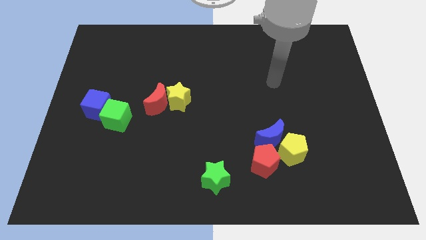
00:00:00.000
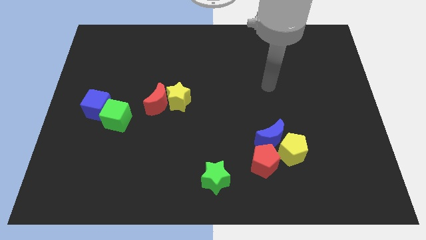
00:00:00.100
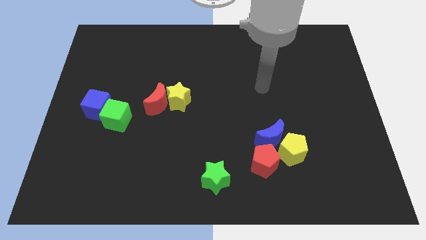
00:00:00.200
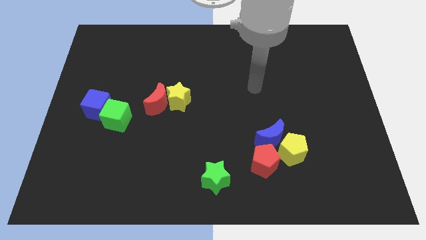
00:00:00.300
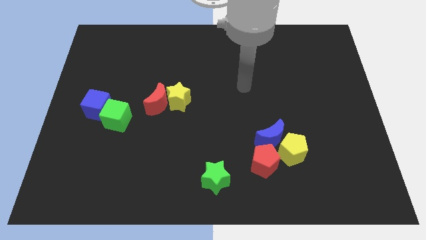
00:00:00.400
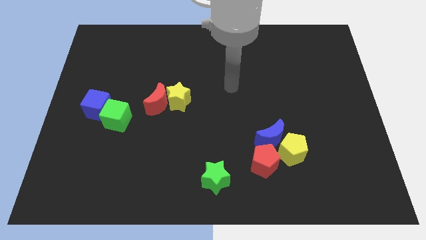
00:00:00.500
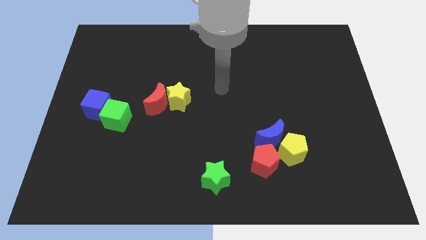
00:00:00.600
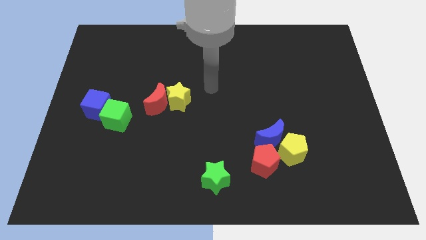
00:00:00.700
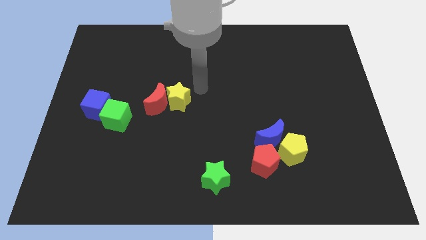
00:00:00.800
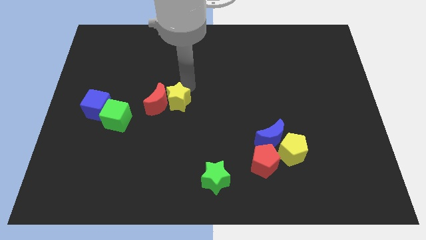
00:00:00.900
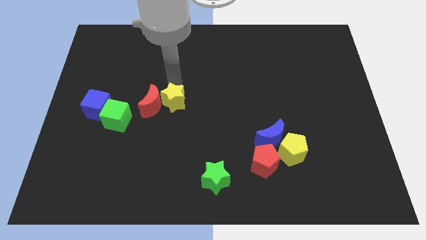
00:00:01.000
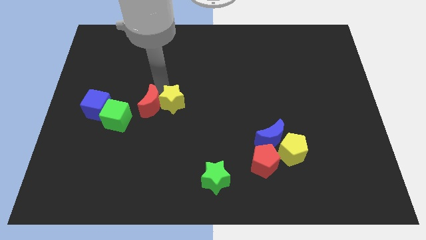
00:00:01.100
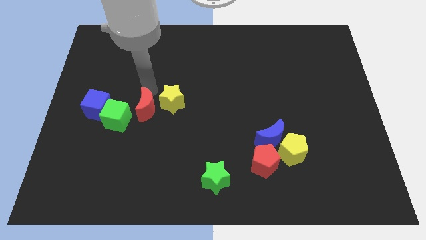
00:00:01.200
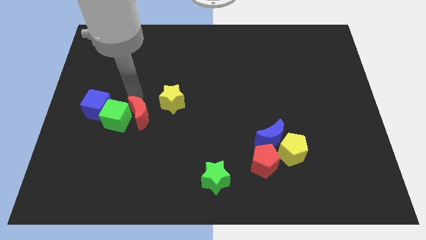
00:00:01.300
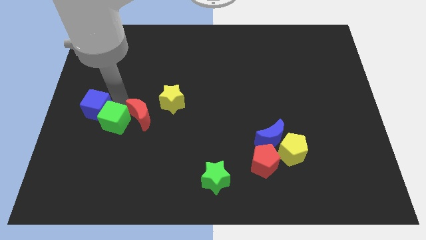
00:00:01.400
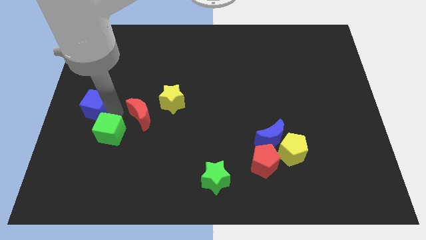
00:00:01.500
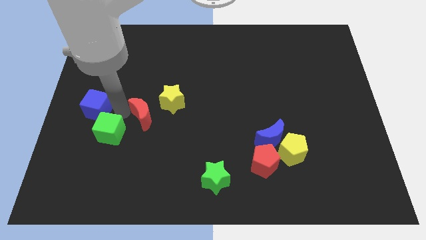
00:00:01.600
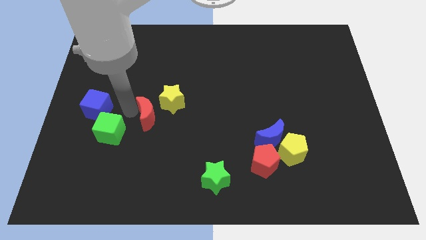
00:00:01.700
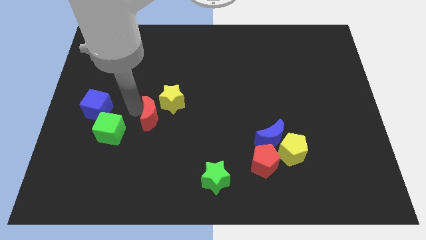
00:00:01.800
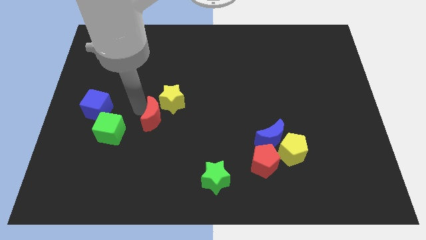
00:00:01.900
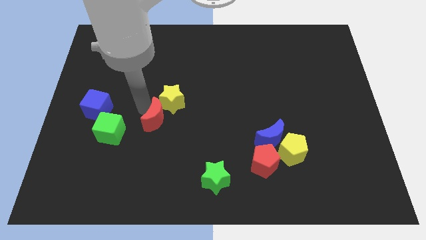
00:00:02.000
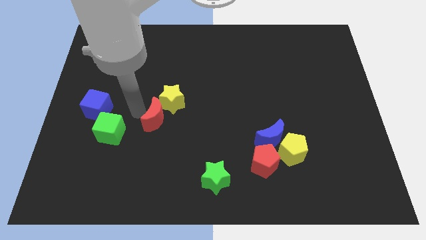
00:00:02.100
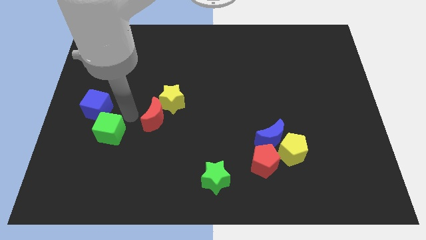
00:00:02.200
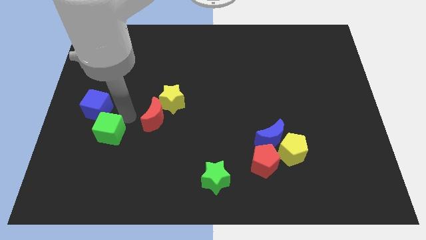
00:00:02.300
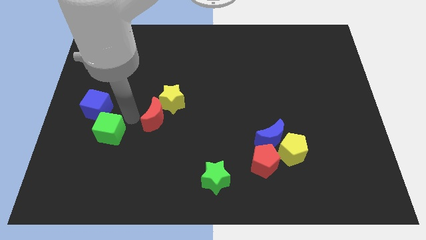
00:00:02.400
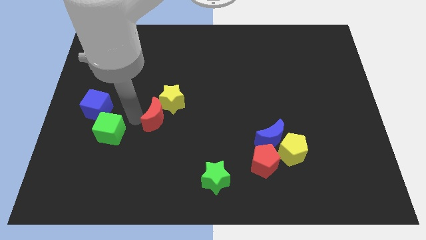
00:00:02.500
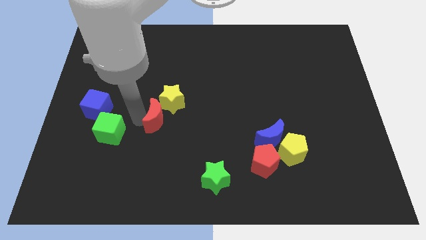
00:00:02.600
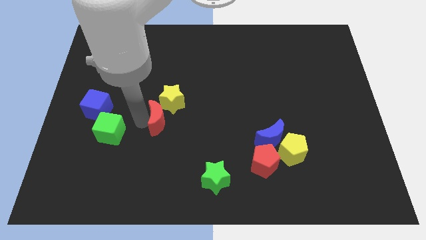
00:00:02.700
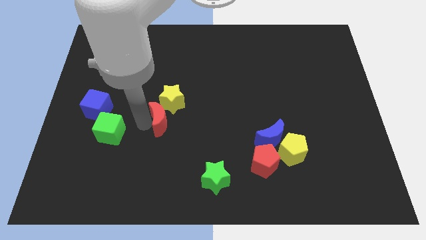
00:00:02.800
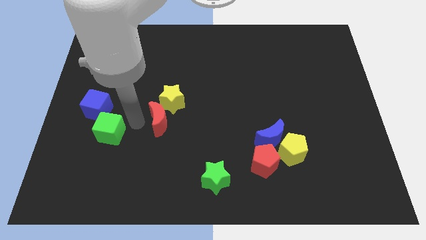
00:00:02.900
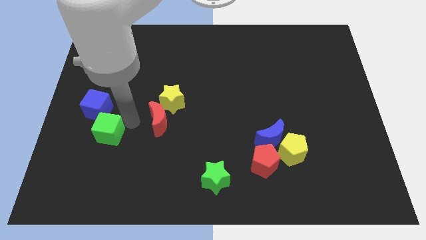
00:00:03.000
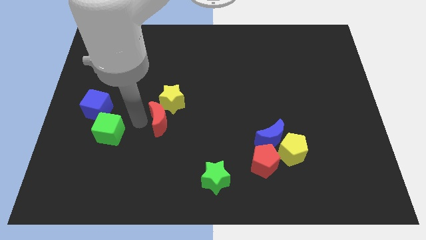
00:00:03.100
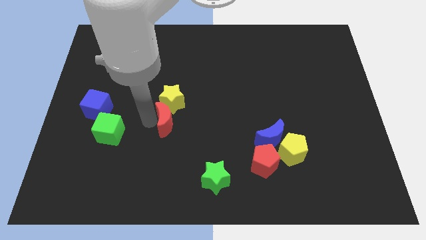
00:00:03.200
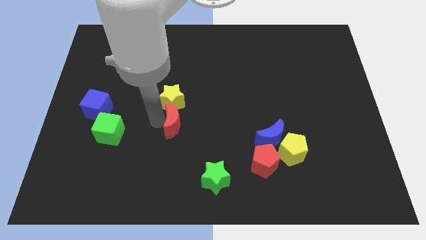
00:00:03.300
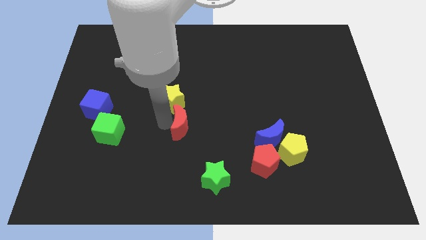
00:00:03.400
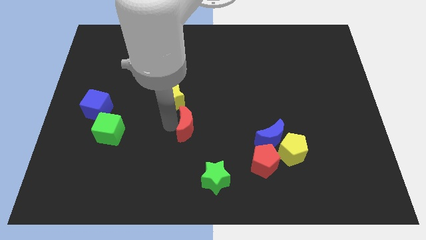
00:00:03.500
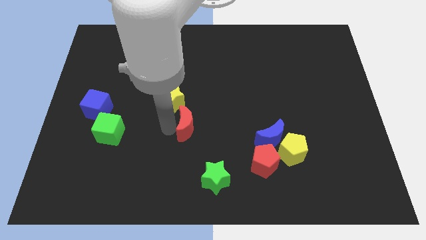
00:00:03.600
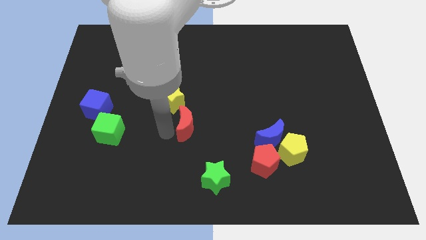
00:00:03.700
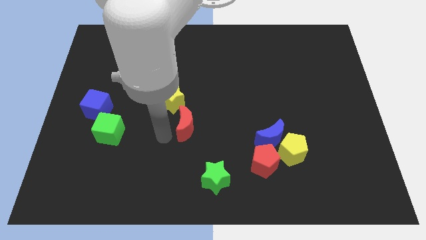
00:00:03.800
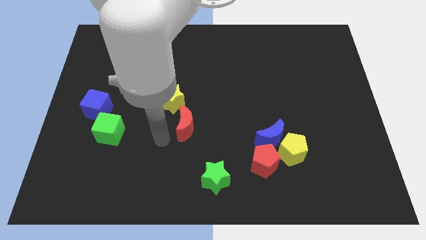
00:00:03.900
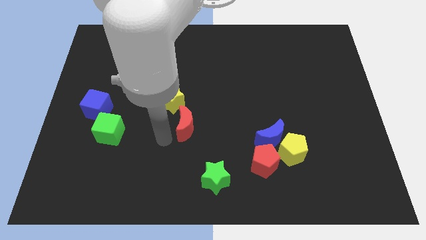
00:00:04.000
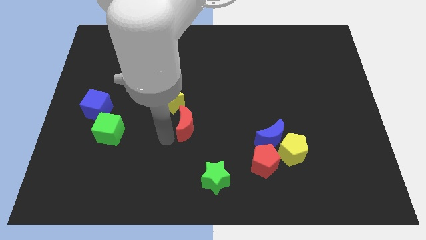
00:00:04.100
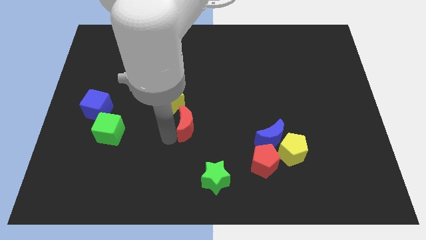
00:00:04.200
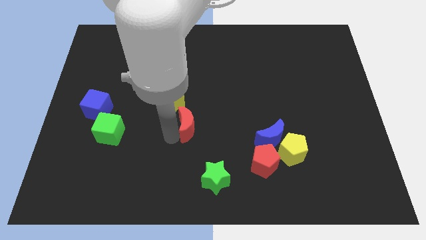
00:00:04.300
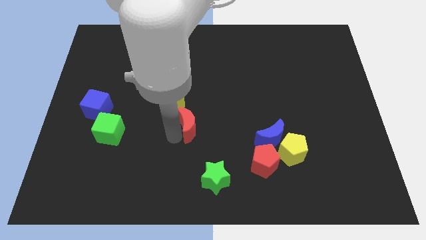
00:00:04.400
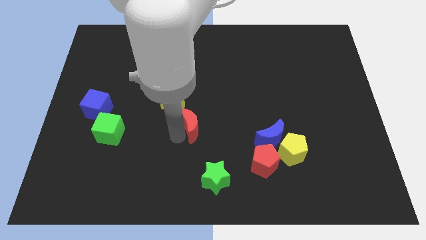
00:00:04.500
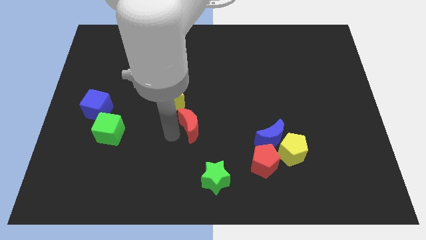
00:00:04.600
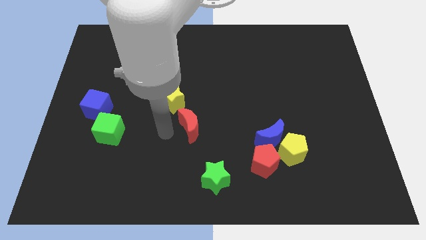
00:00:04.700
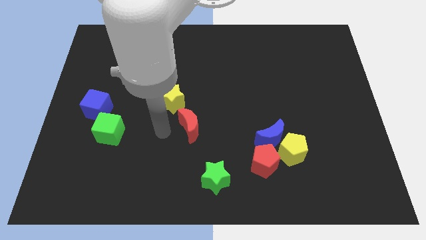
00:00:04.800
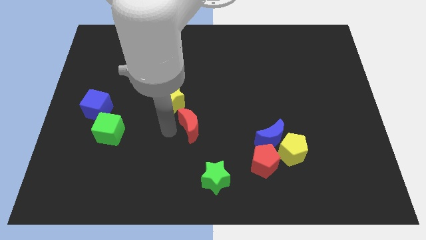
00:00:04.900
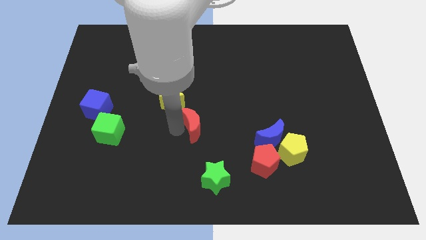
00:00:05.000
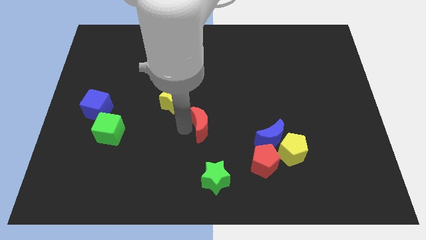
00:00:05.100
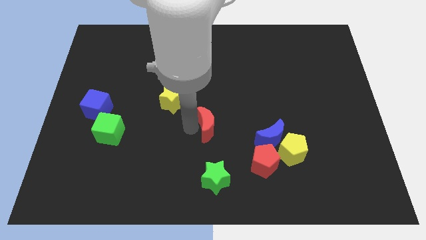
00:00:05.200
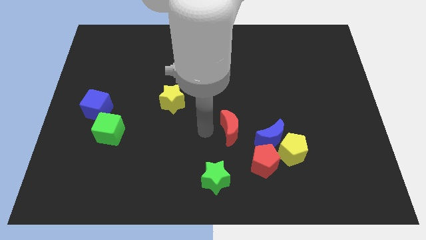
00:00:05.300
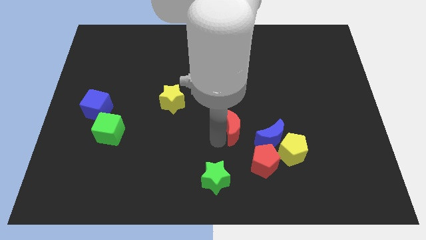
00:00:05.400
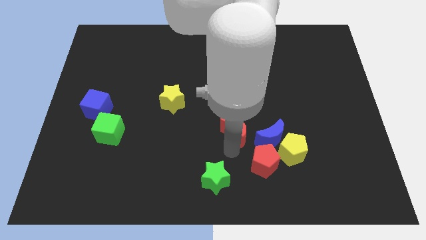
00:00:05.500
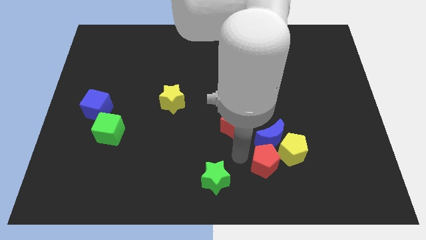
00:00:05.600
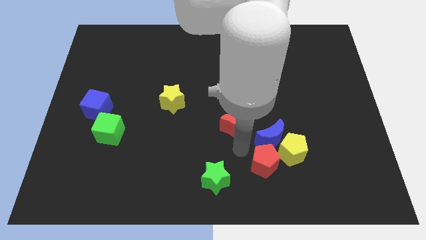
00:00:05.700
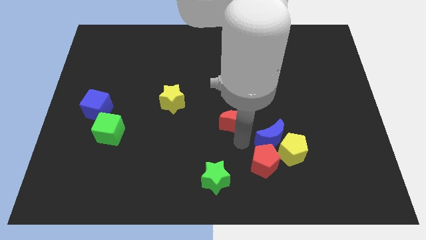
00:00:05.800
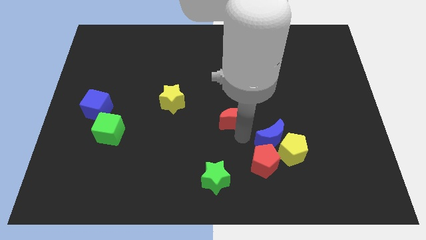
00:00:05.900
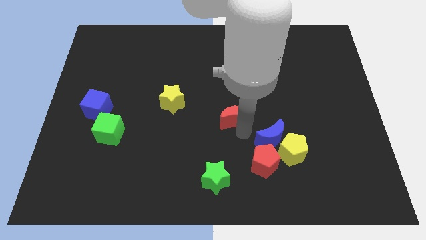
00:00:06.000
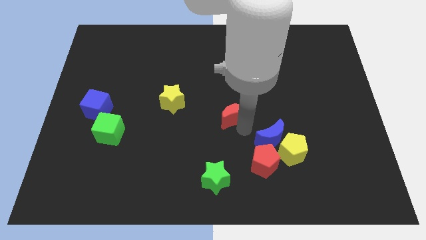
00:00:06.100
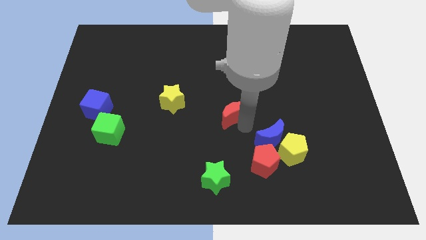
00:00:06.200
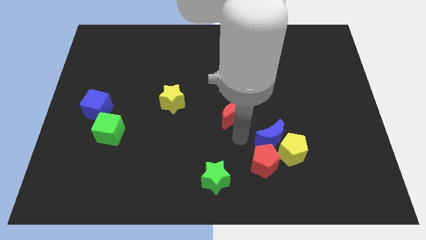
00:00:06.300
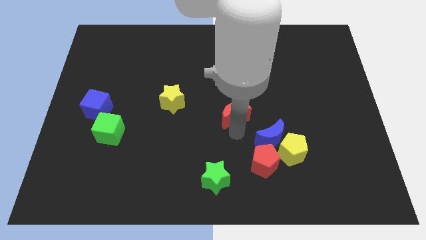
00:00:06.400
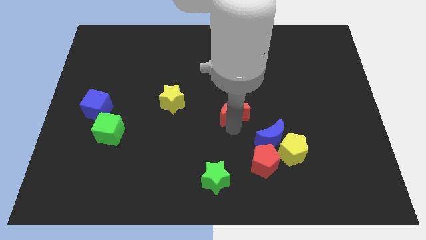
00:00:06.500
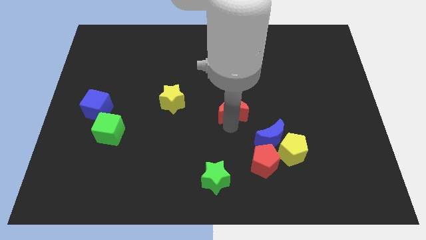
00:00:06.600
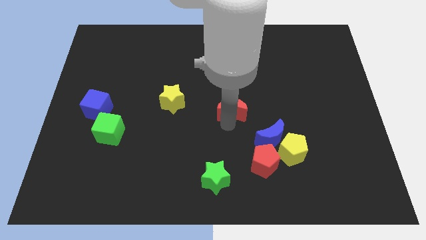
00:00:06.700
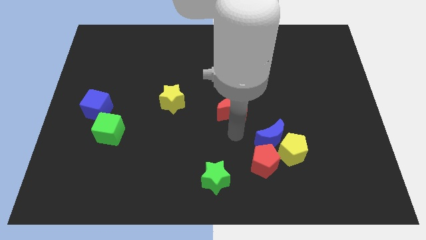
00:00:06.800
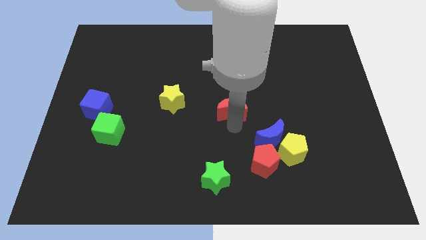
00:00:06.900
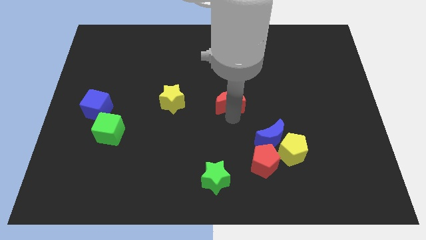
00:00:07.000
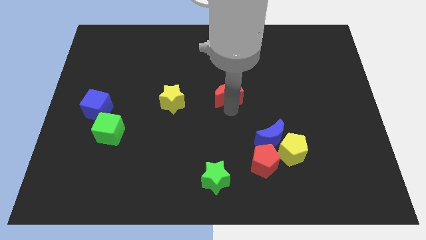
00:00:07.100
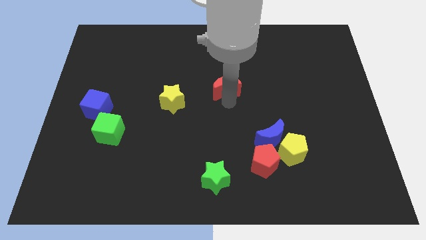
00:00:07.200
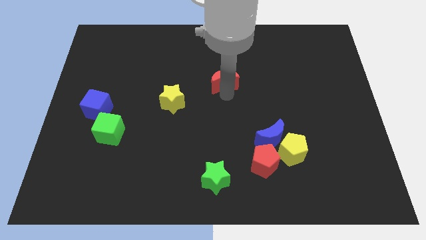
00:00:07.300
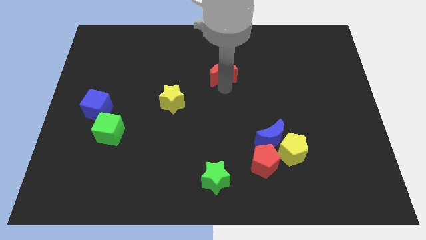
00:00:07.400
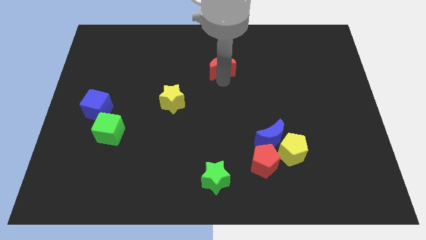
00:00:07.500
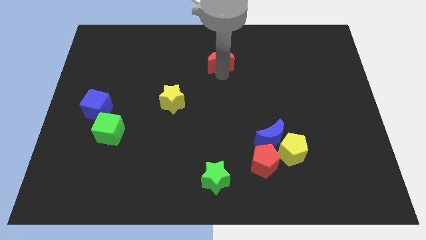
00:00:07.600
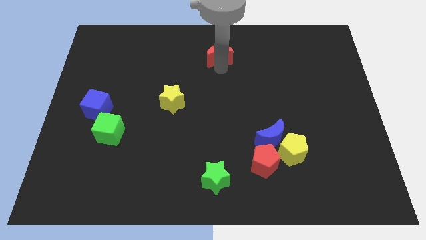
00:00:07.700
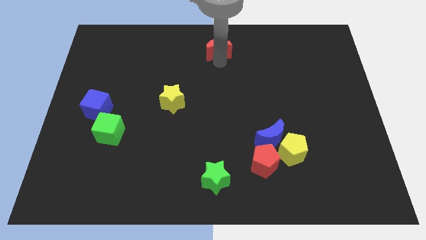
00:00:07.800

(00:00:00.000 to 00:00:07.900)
push the red moon to the top
